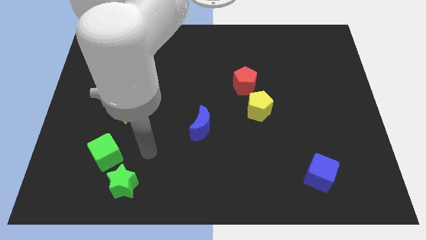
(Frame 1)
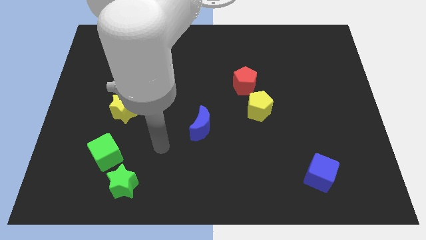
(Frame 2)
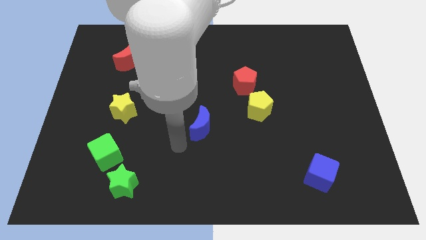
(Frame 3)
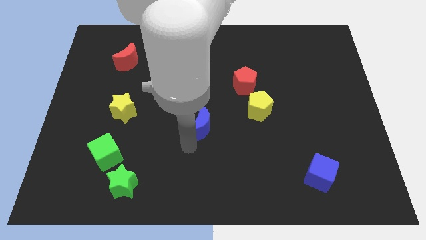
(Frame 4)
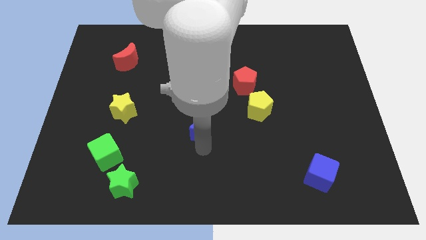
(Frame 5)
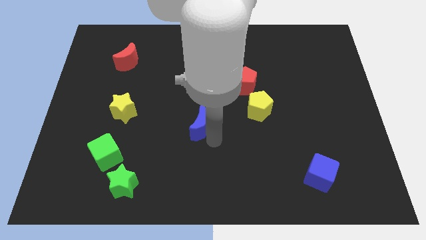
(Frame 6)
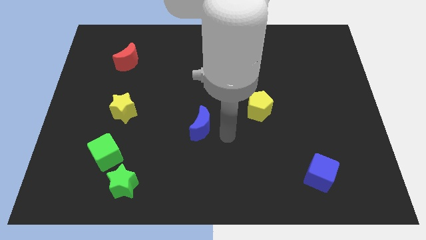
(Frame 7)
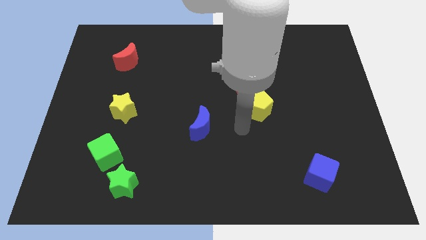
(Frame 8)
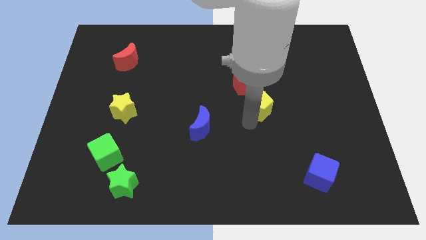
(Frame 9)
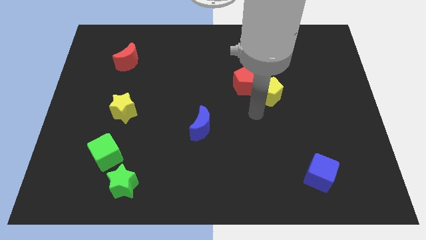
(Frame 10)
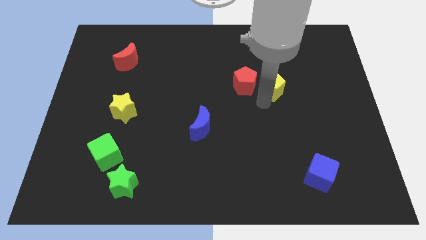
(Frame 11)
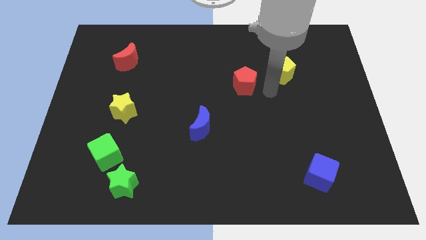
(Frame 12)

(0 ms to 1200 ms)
pull the red pentagon apart from the yellow pentagon

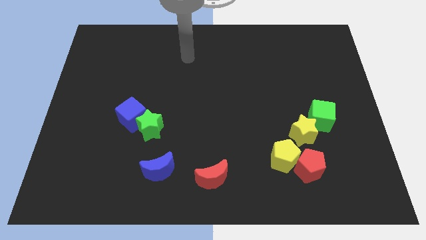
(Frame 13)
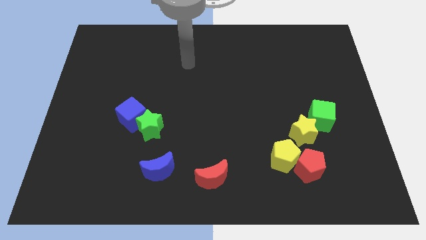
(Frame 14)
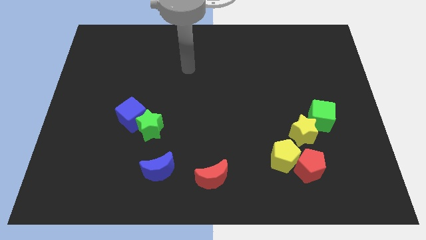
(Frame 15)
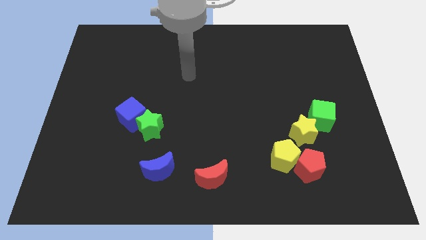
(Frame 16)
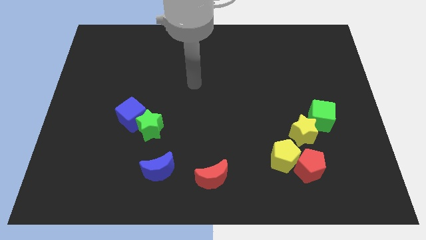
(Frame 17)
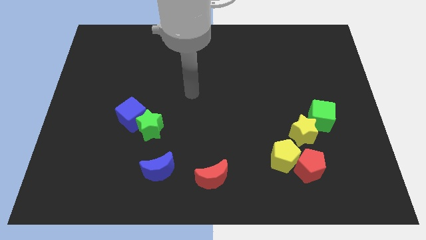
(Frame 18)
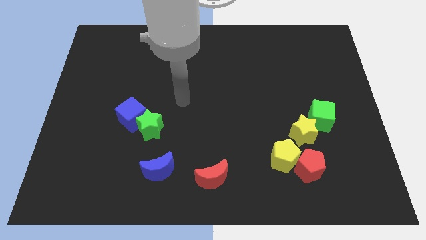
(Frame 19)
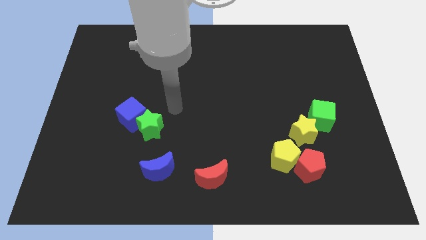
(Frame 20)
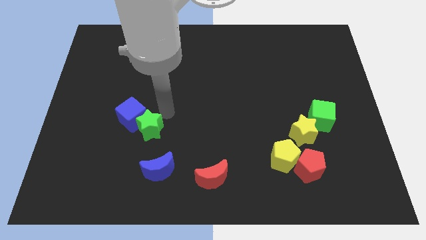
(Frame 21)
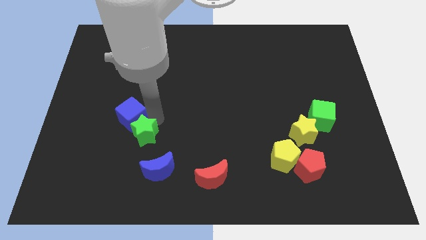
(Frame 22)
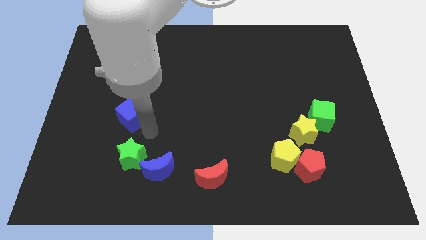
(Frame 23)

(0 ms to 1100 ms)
move the blue cube away from the green star

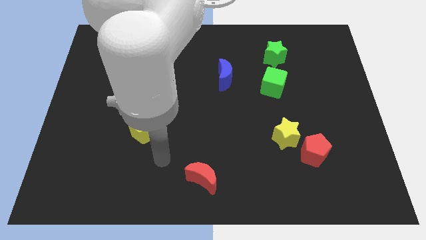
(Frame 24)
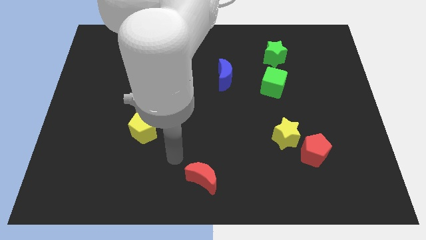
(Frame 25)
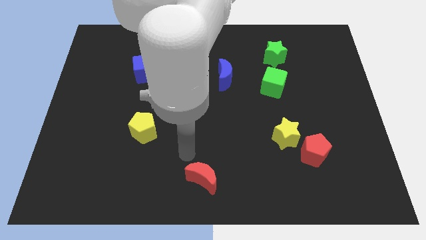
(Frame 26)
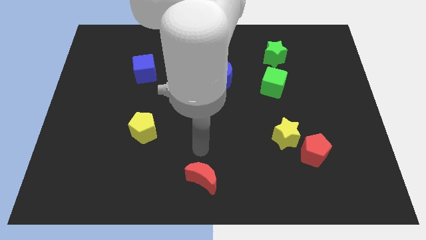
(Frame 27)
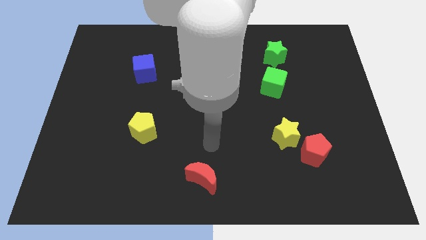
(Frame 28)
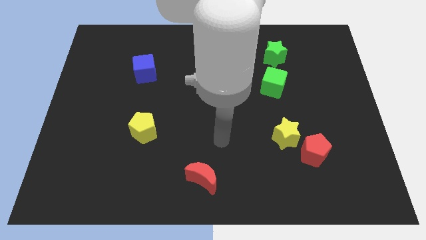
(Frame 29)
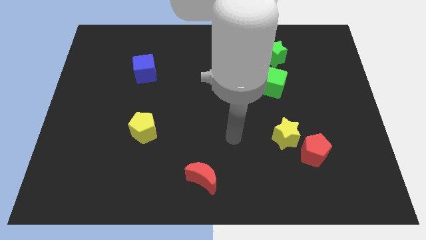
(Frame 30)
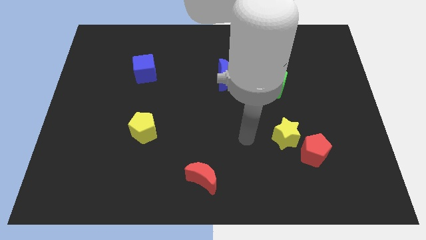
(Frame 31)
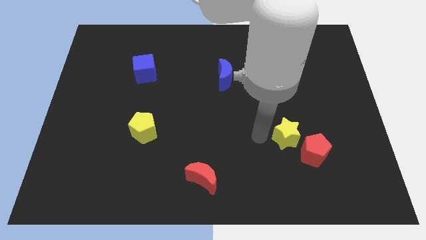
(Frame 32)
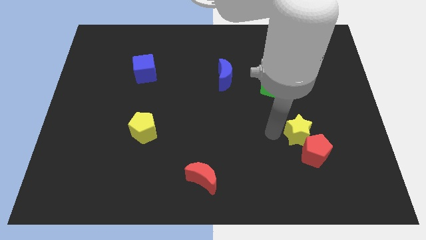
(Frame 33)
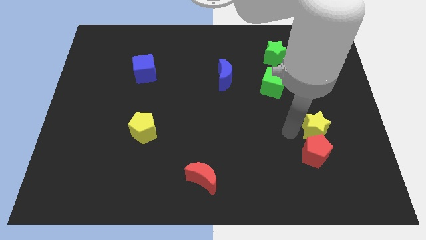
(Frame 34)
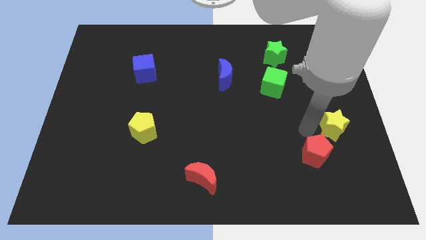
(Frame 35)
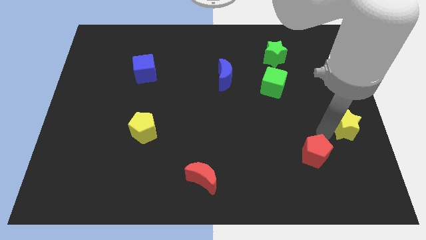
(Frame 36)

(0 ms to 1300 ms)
separate the red pentagon from the yellow star

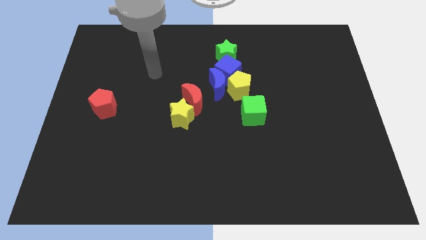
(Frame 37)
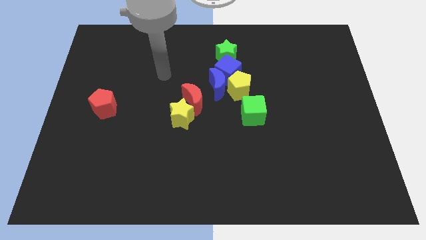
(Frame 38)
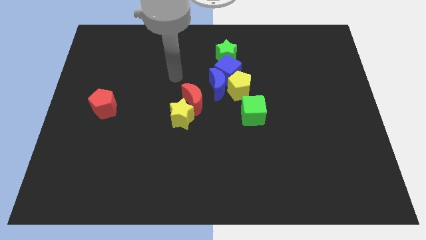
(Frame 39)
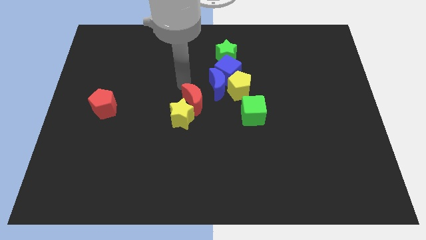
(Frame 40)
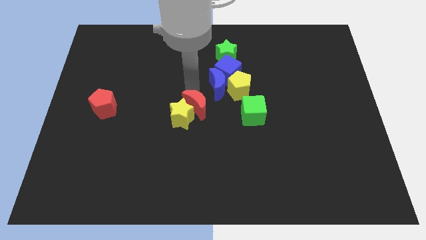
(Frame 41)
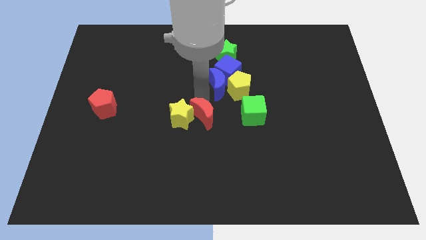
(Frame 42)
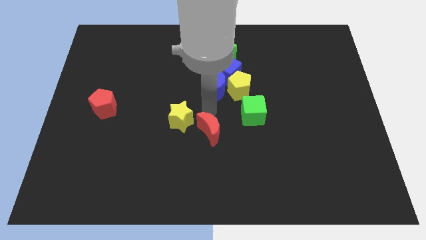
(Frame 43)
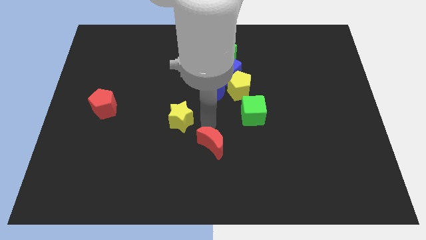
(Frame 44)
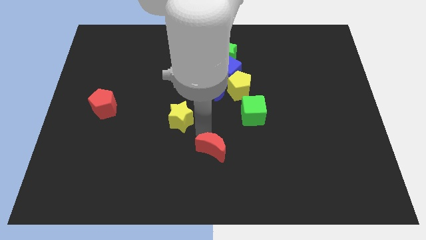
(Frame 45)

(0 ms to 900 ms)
separate the yellow star from the red moon

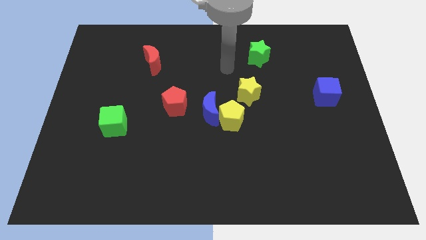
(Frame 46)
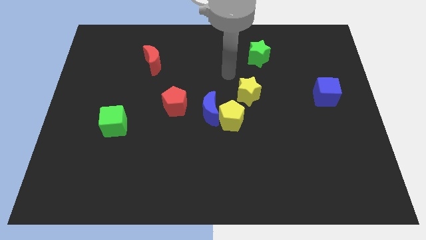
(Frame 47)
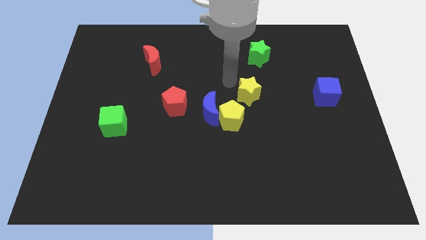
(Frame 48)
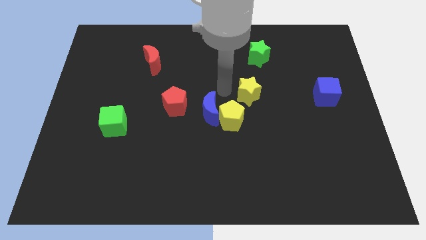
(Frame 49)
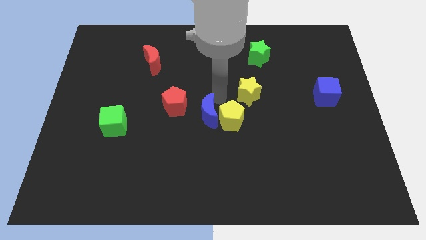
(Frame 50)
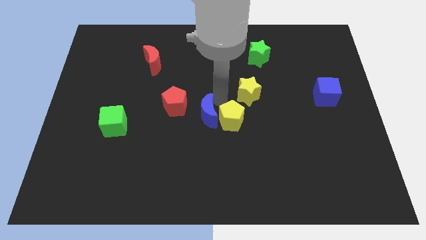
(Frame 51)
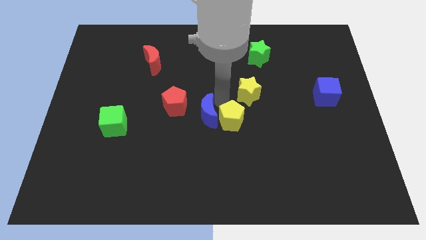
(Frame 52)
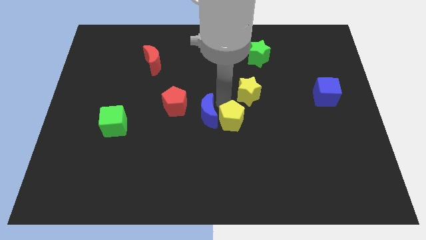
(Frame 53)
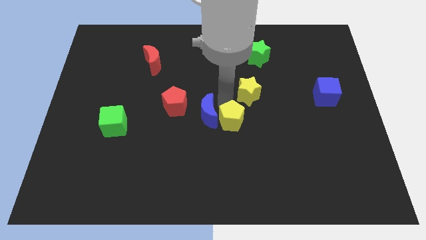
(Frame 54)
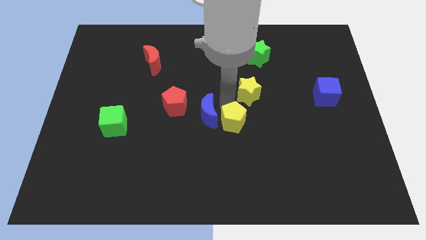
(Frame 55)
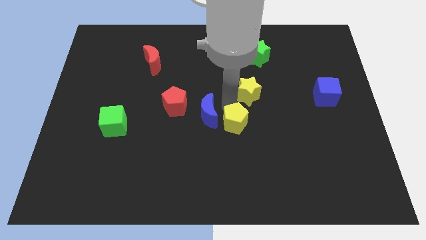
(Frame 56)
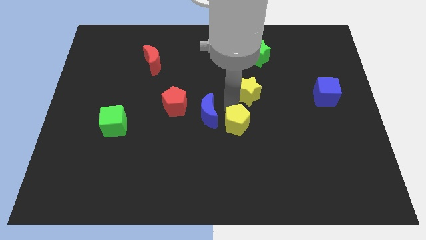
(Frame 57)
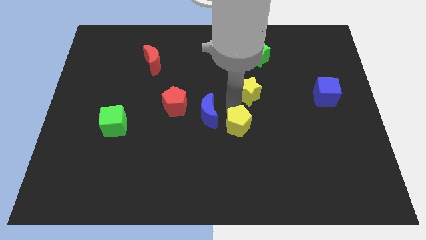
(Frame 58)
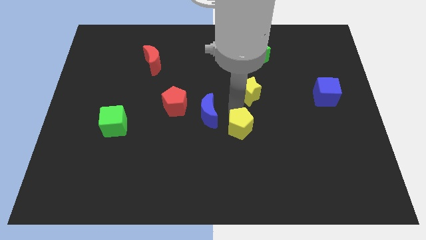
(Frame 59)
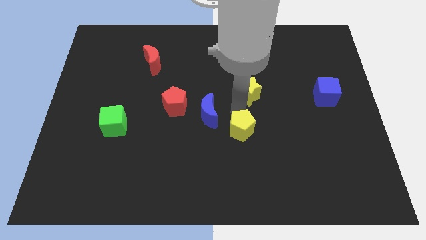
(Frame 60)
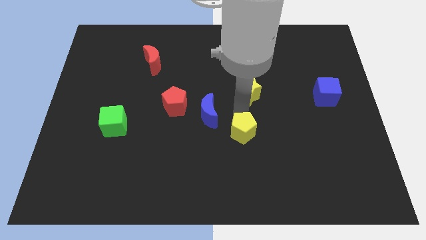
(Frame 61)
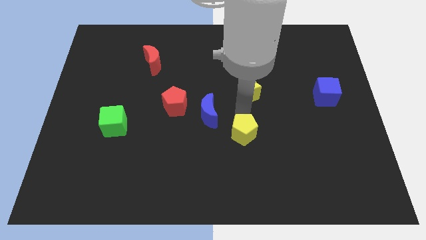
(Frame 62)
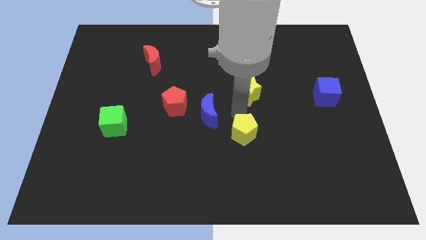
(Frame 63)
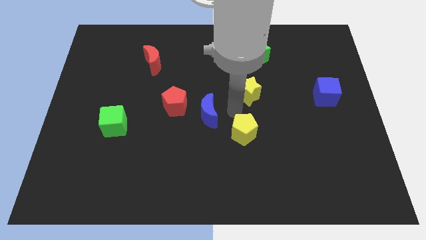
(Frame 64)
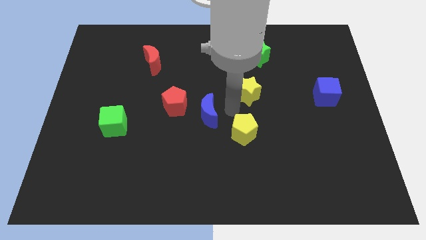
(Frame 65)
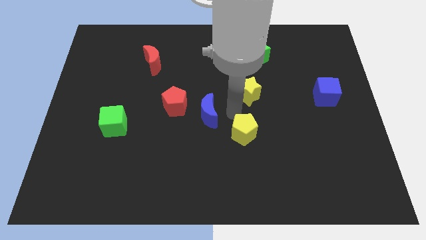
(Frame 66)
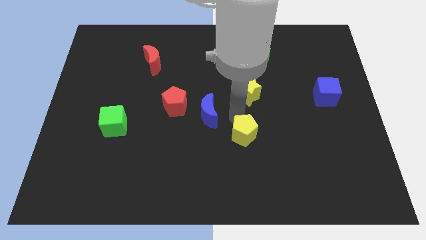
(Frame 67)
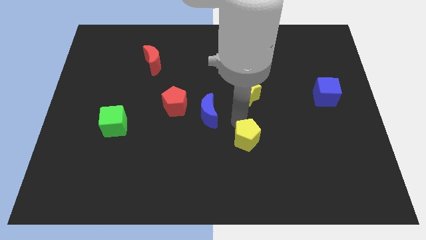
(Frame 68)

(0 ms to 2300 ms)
pull the yellow pentagon apart from the blue moon and yellow star

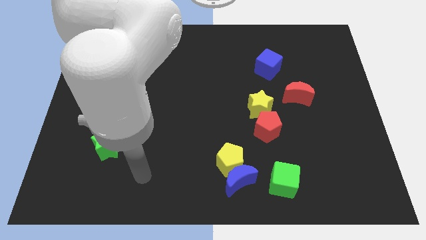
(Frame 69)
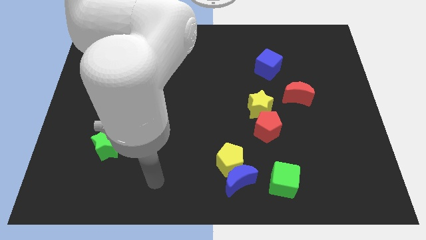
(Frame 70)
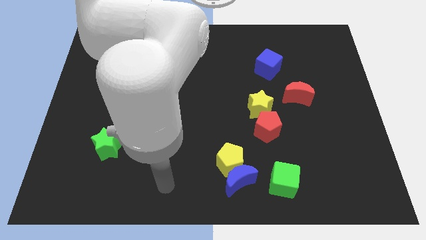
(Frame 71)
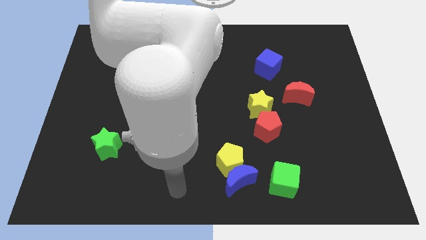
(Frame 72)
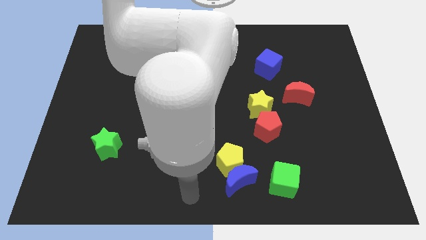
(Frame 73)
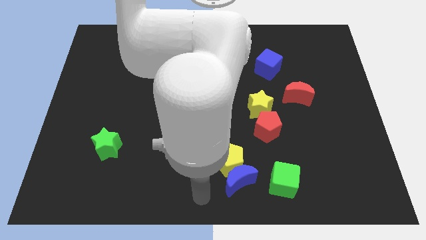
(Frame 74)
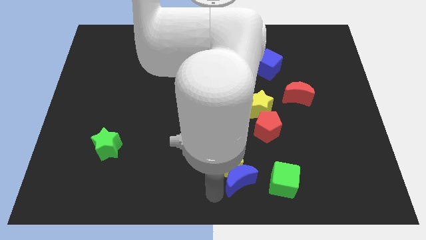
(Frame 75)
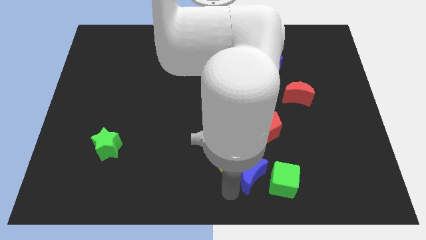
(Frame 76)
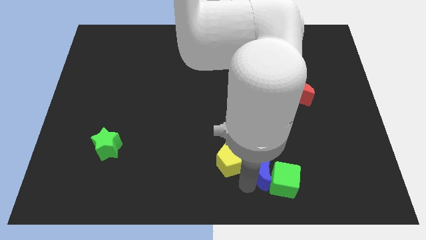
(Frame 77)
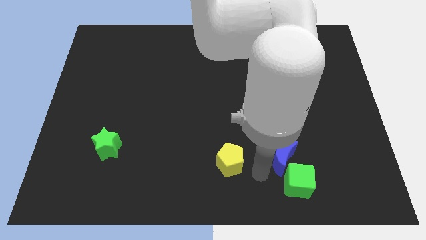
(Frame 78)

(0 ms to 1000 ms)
separate the yellow pentagon from the blue moon

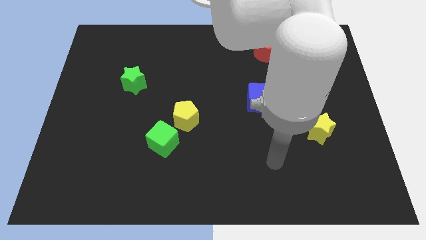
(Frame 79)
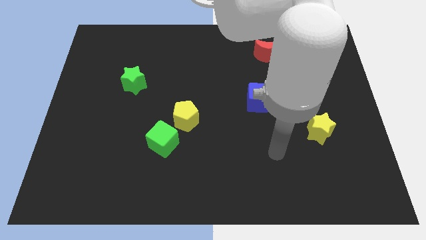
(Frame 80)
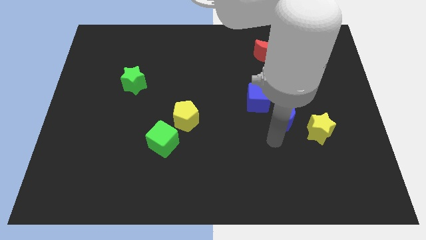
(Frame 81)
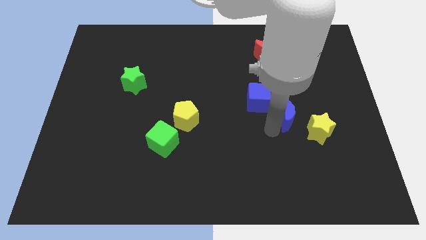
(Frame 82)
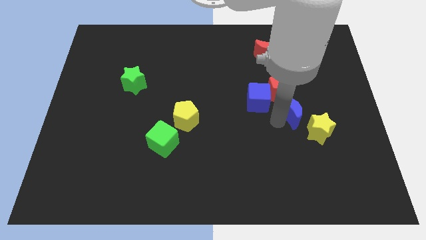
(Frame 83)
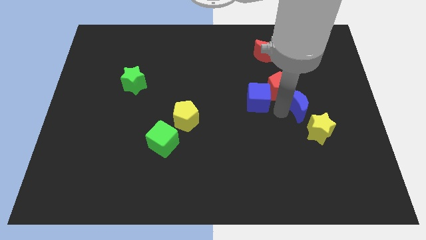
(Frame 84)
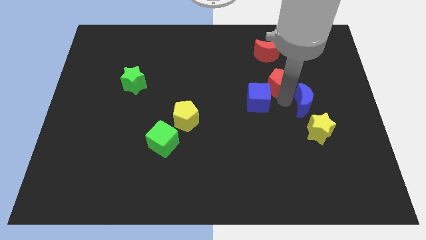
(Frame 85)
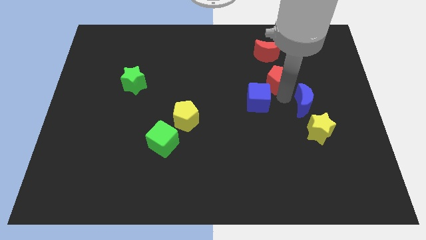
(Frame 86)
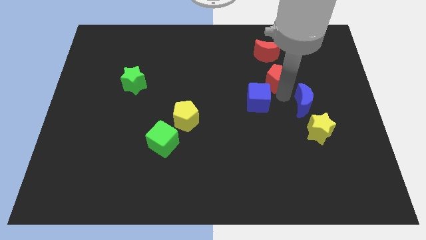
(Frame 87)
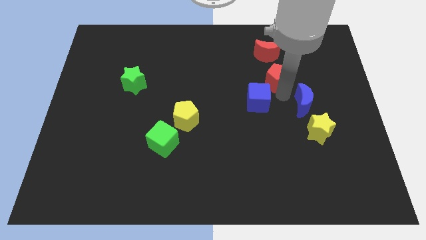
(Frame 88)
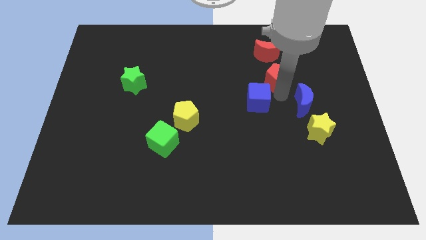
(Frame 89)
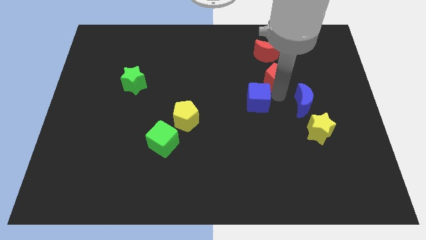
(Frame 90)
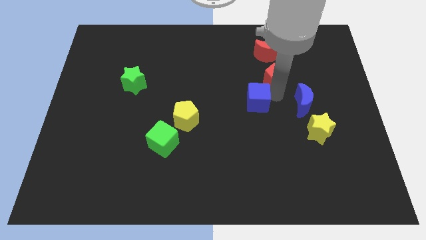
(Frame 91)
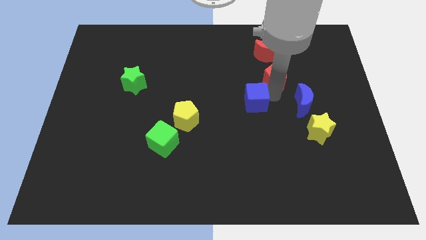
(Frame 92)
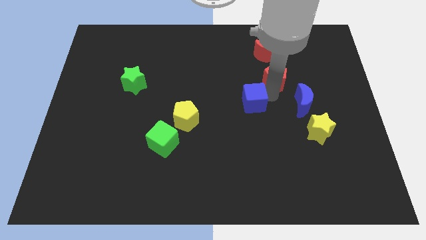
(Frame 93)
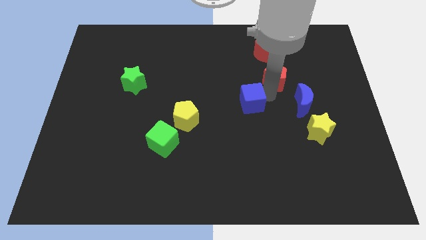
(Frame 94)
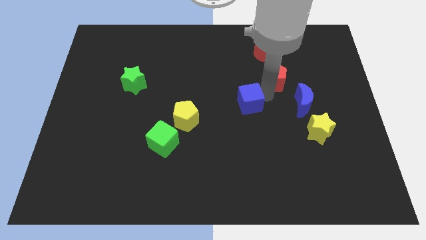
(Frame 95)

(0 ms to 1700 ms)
pull the blue cube apart from the red pentagon and blue moon
